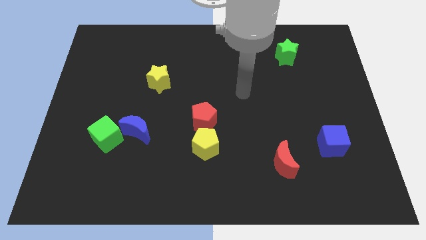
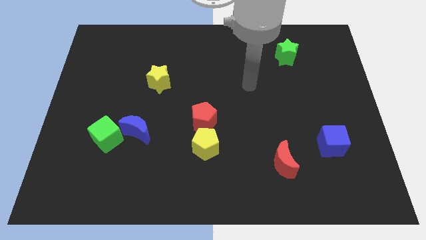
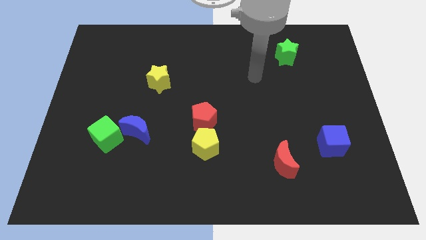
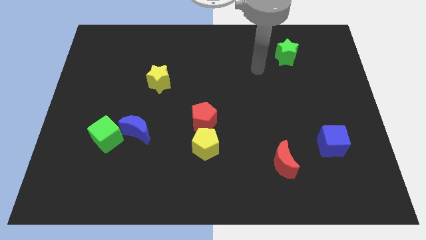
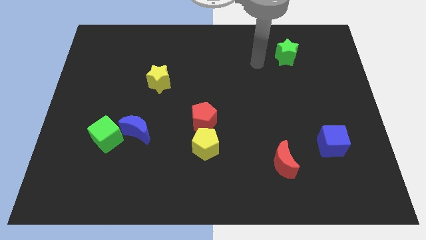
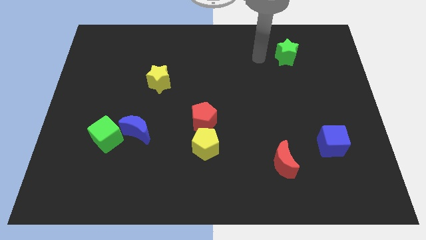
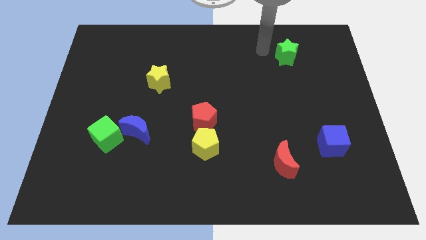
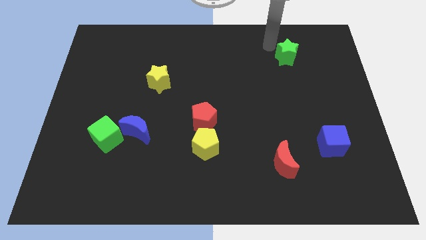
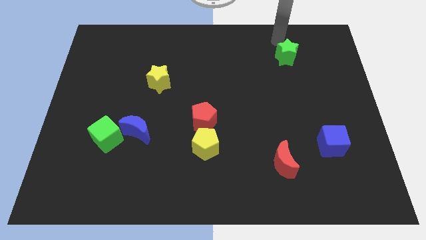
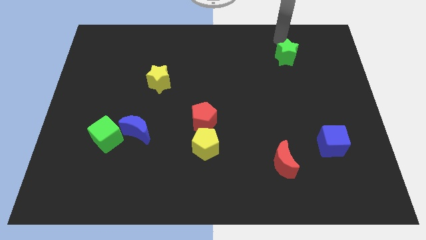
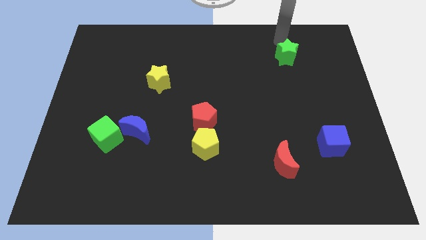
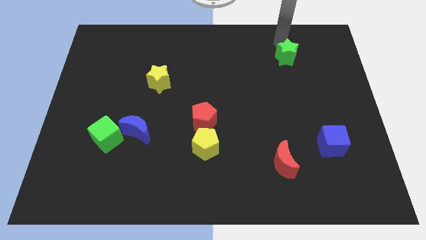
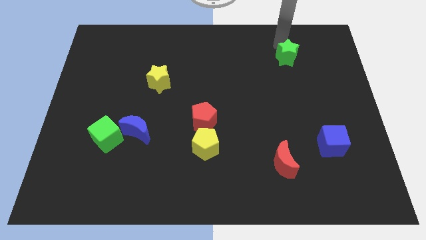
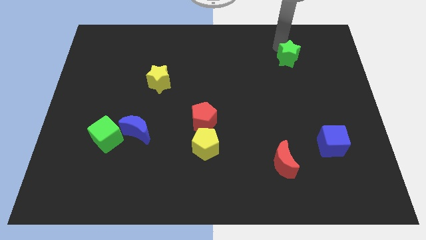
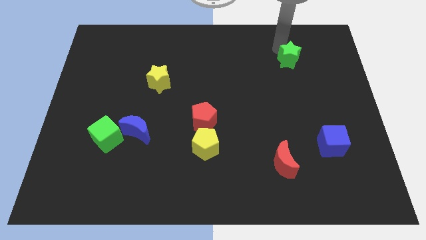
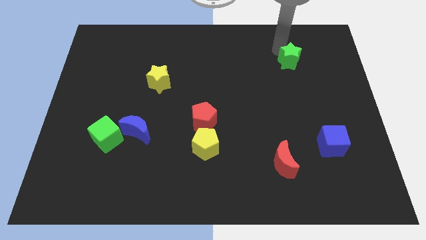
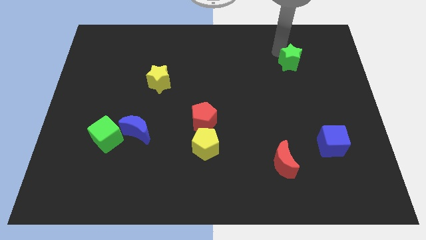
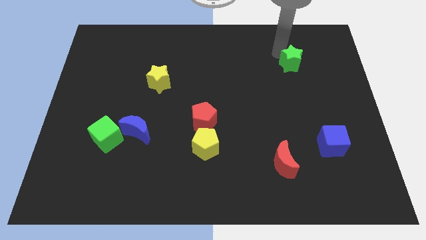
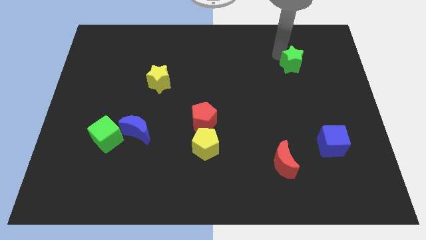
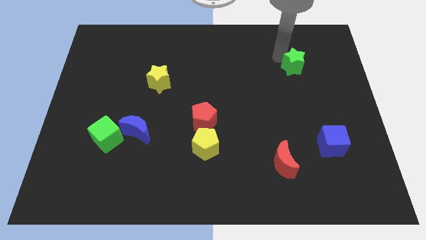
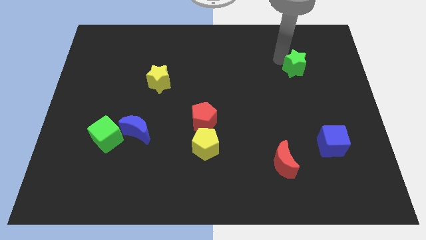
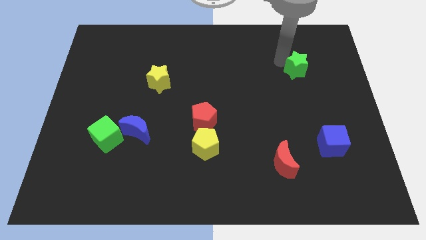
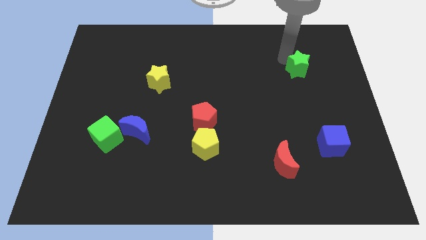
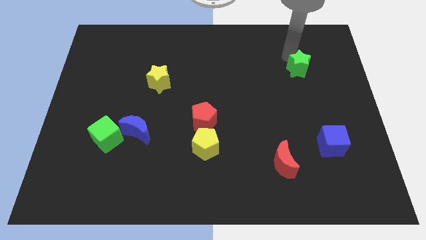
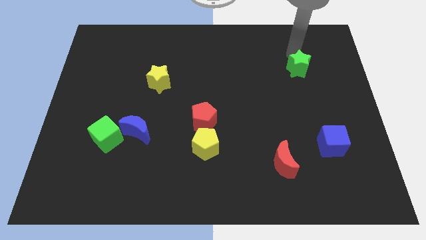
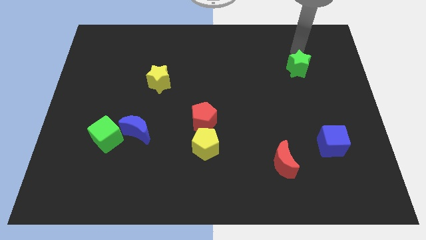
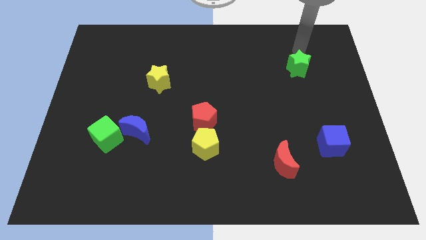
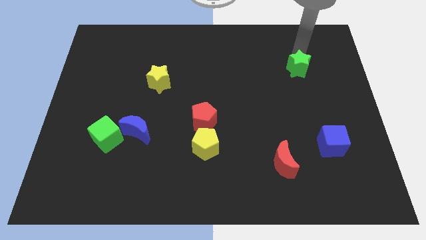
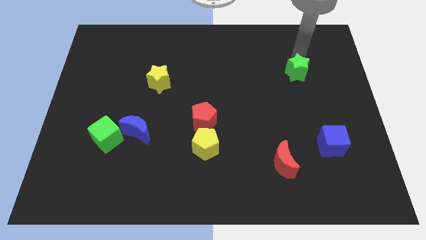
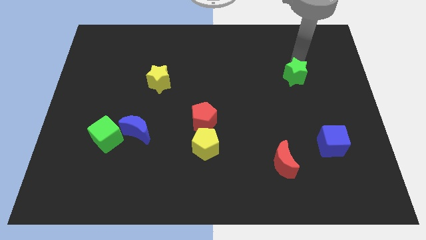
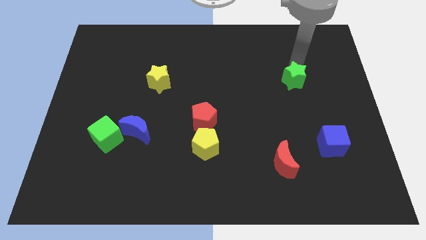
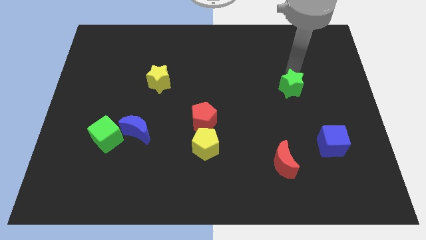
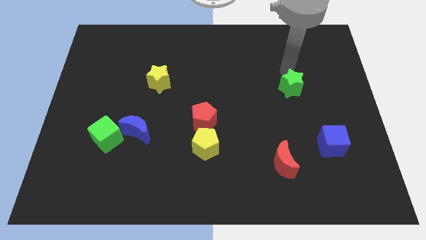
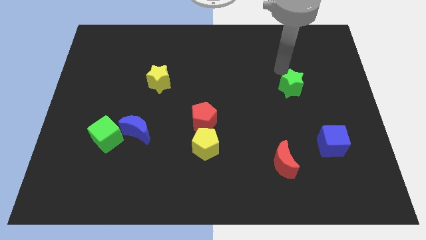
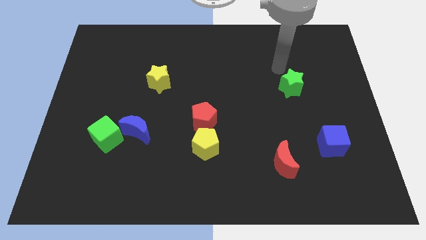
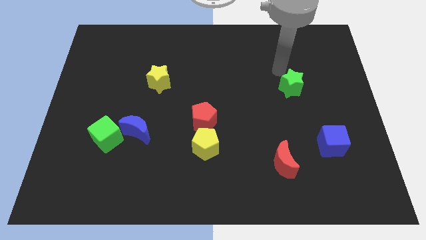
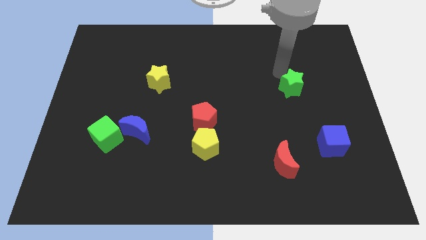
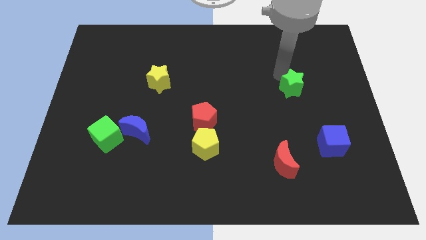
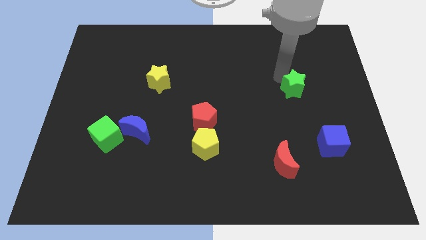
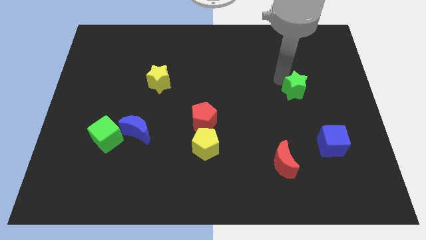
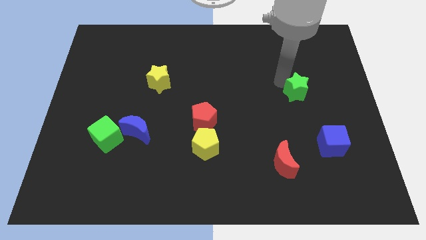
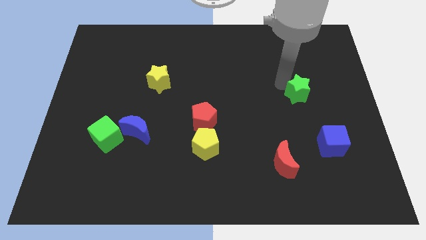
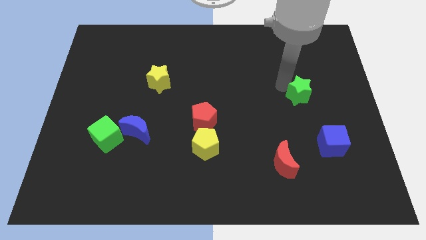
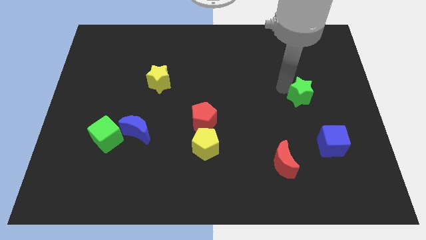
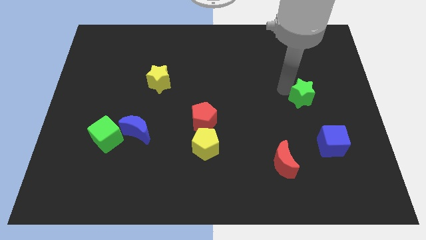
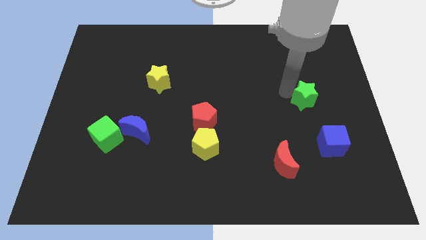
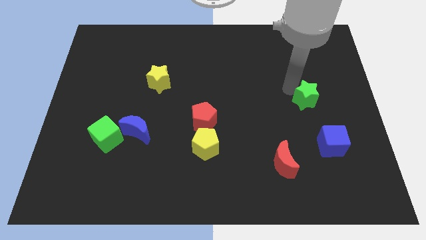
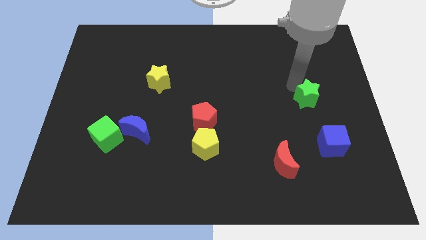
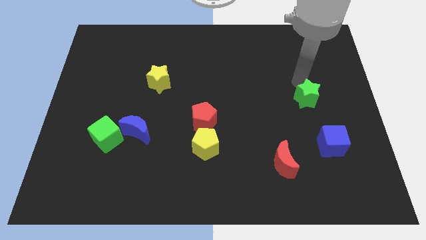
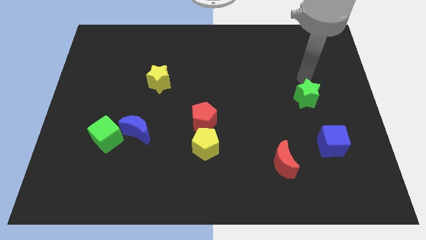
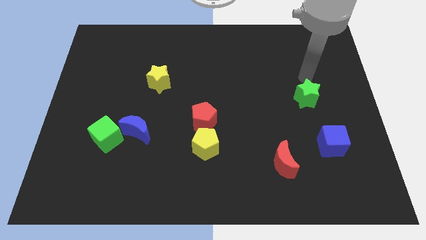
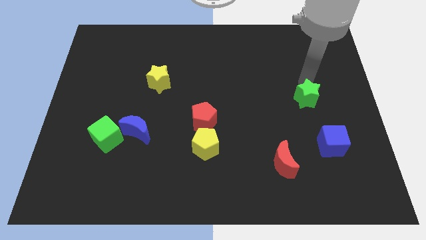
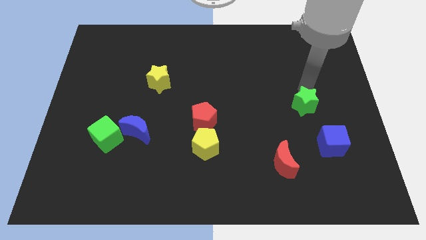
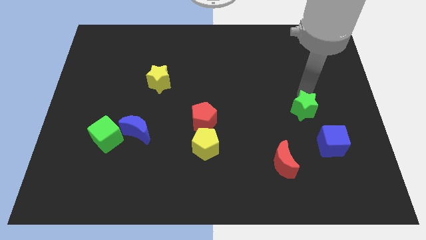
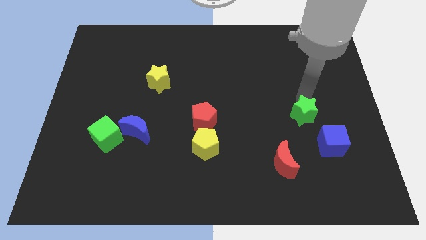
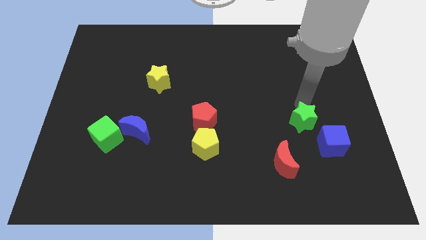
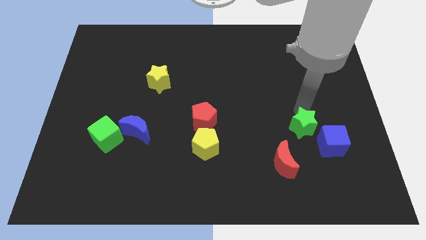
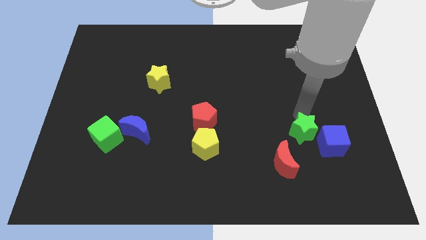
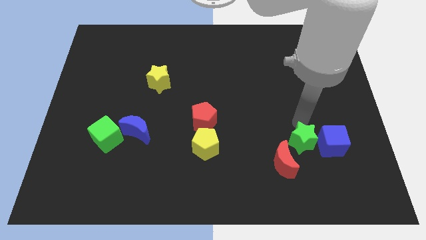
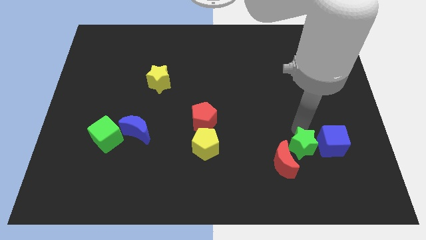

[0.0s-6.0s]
move the green star diagonally down and to the left of the blue cube
